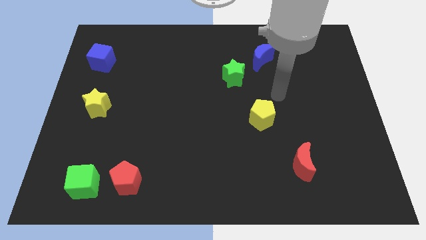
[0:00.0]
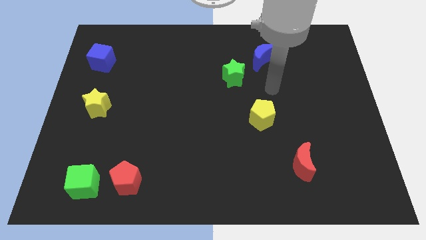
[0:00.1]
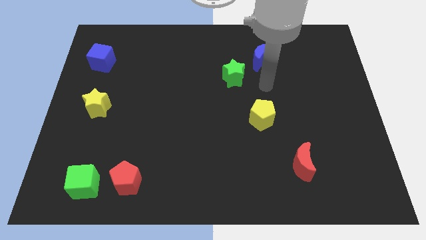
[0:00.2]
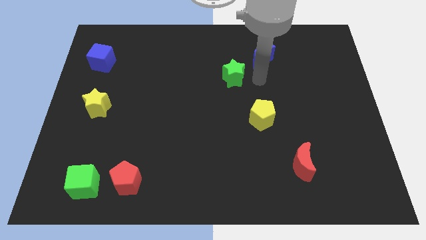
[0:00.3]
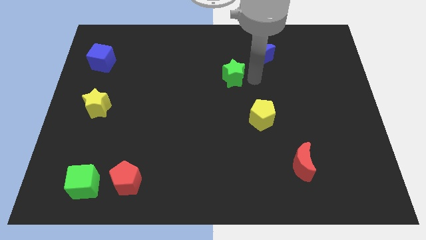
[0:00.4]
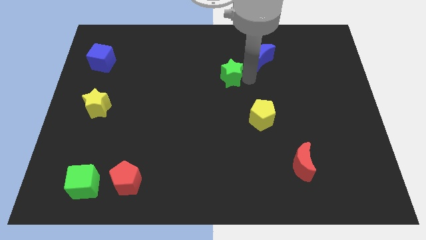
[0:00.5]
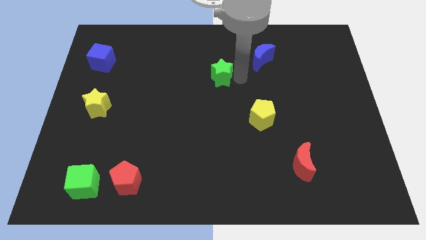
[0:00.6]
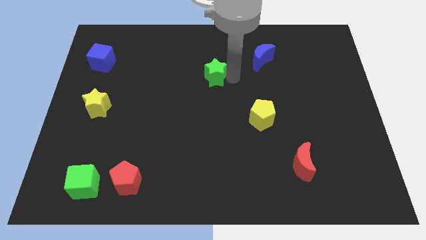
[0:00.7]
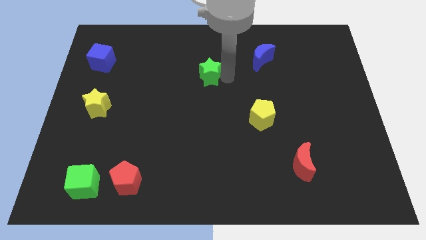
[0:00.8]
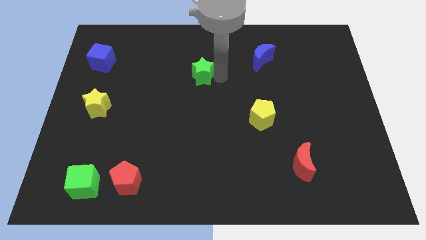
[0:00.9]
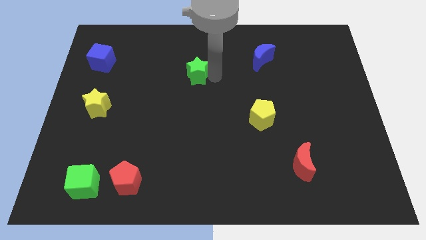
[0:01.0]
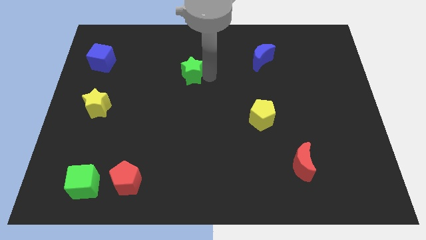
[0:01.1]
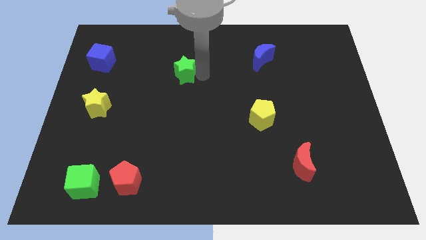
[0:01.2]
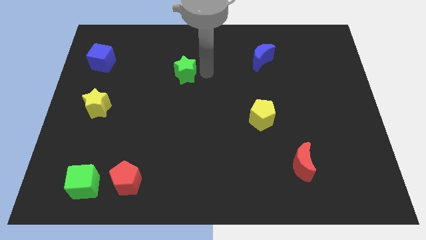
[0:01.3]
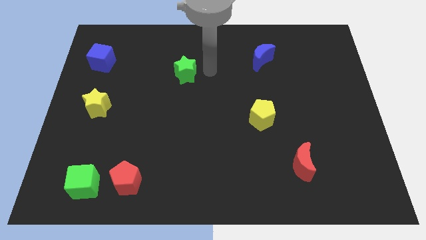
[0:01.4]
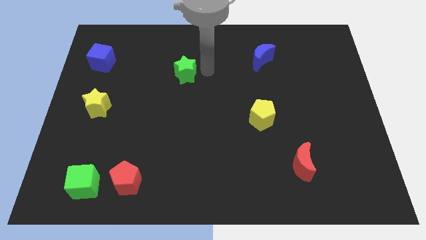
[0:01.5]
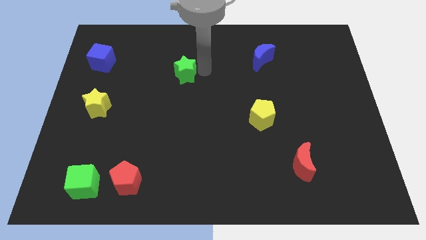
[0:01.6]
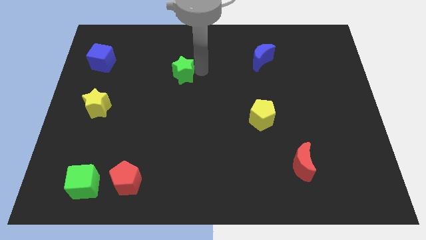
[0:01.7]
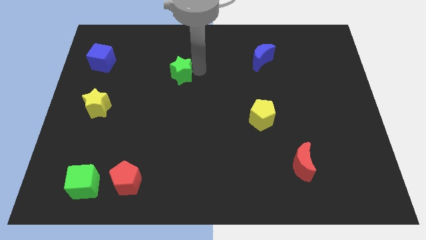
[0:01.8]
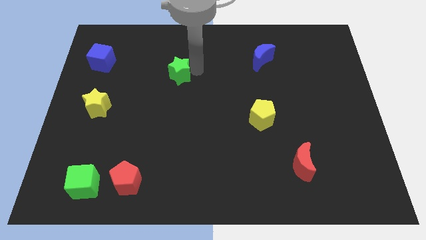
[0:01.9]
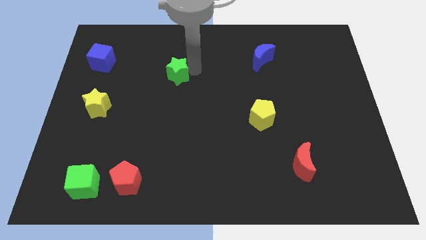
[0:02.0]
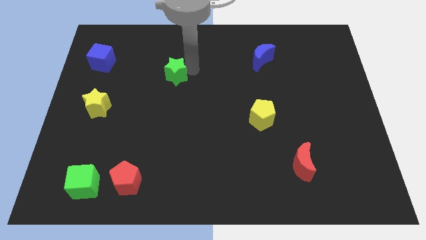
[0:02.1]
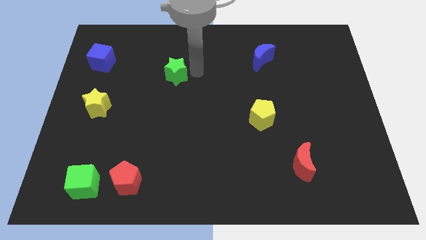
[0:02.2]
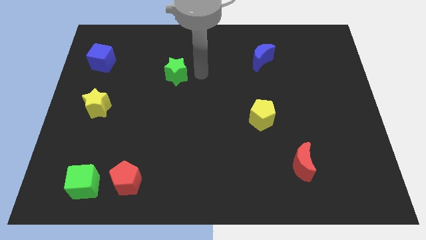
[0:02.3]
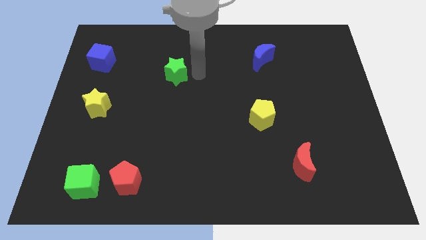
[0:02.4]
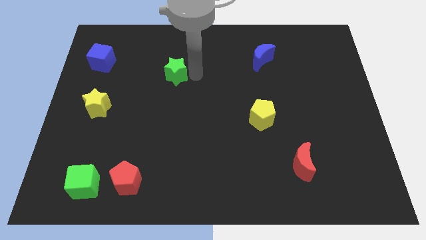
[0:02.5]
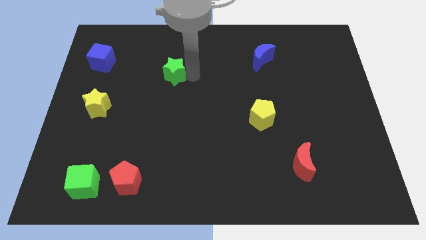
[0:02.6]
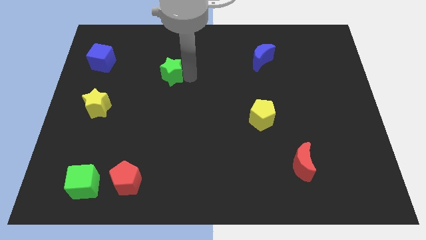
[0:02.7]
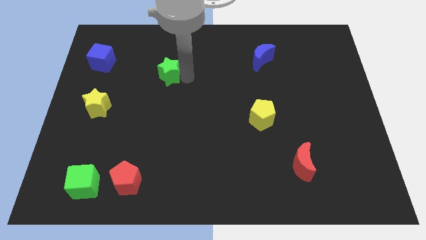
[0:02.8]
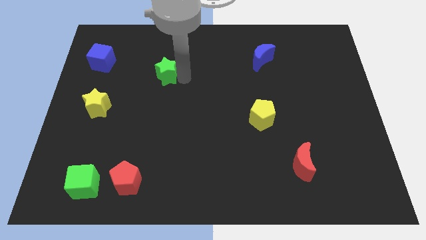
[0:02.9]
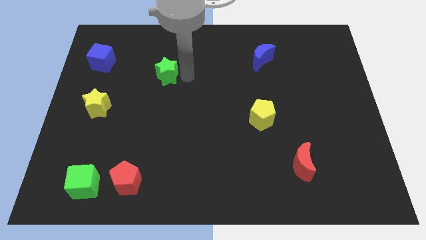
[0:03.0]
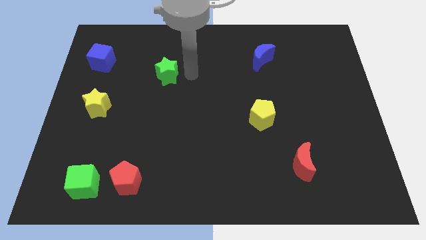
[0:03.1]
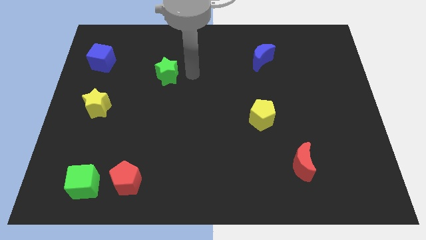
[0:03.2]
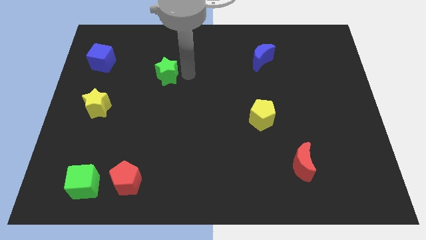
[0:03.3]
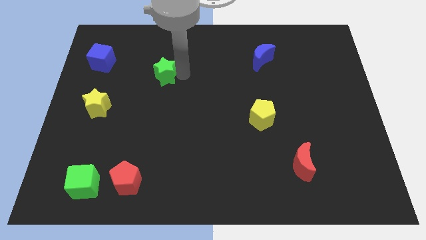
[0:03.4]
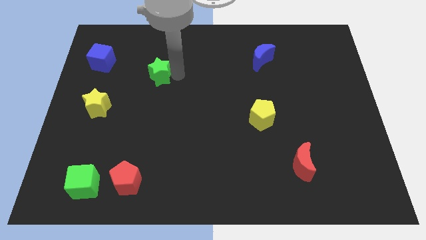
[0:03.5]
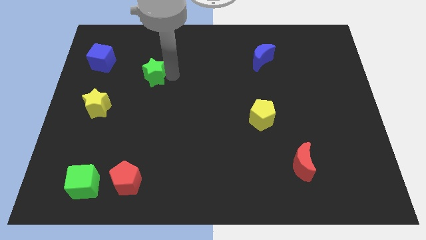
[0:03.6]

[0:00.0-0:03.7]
push the green star to the left

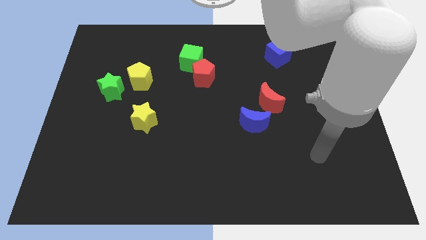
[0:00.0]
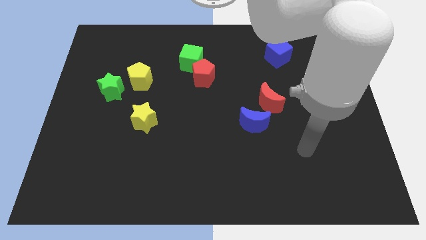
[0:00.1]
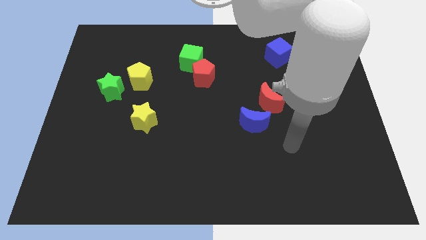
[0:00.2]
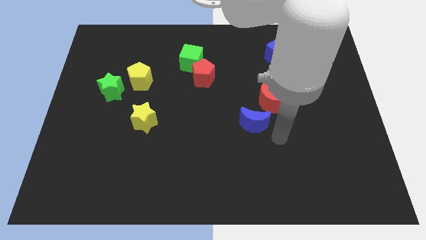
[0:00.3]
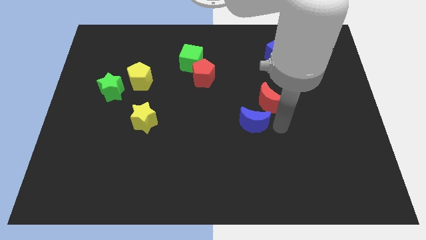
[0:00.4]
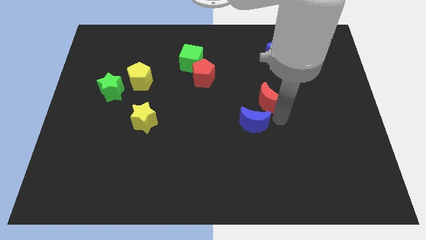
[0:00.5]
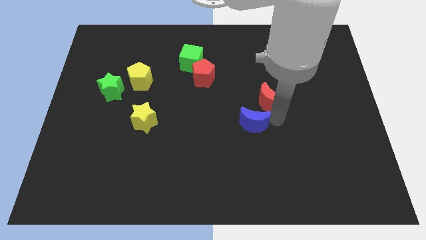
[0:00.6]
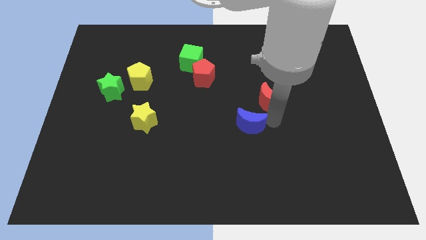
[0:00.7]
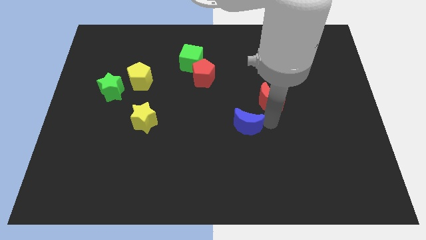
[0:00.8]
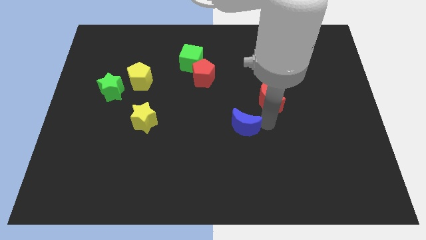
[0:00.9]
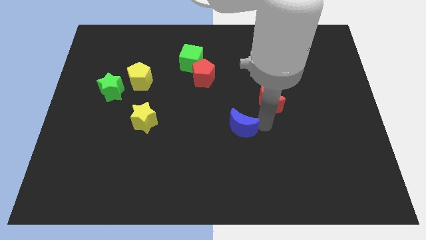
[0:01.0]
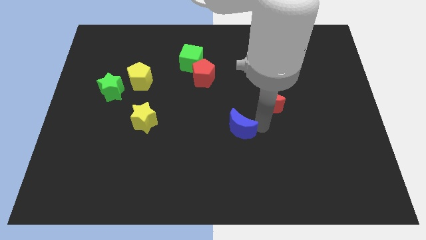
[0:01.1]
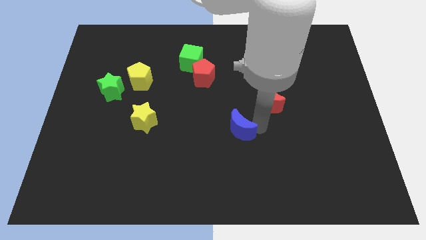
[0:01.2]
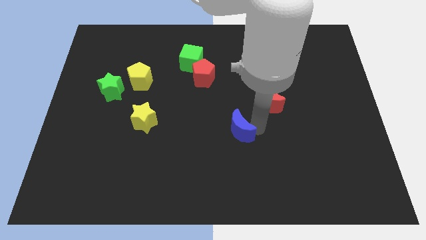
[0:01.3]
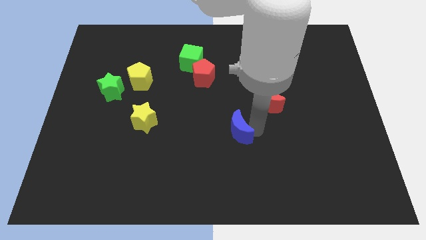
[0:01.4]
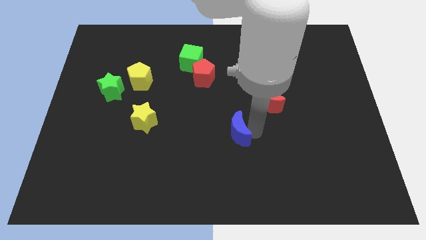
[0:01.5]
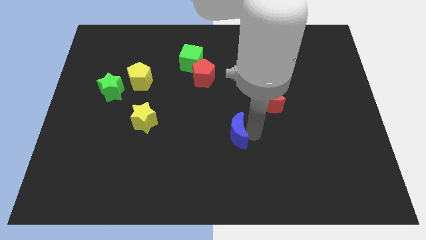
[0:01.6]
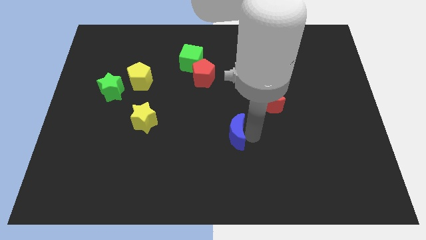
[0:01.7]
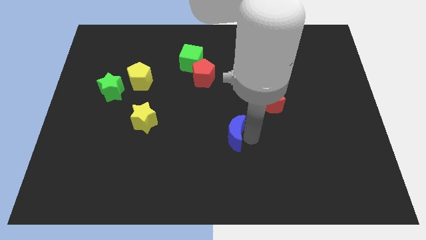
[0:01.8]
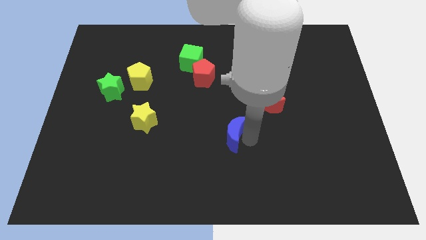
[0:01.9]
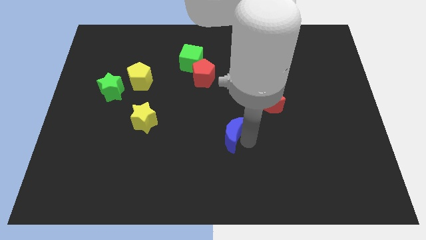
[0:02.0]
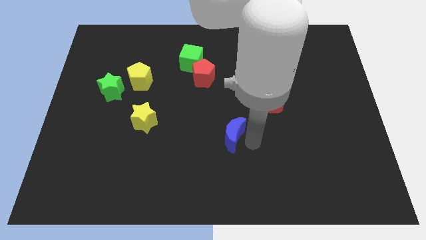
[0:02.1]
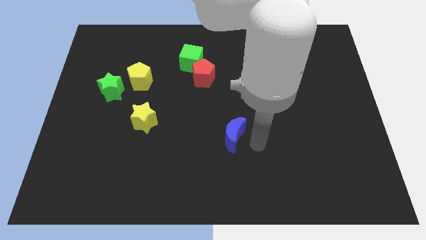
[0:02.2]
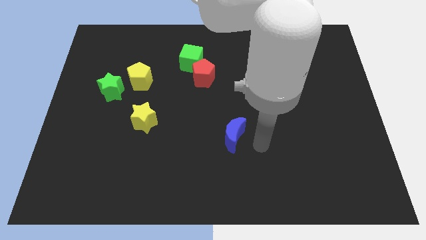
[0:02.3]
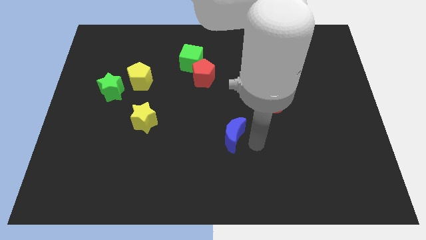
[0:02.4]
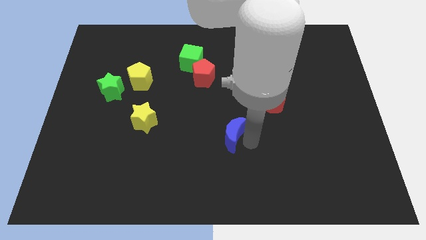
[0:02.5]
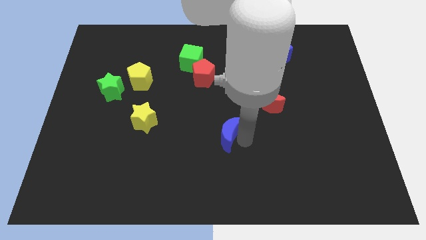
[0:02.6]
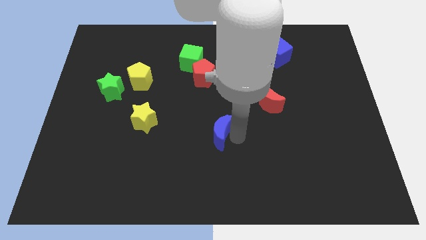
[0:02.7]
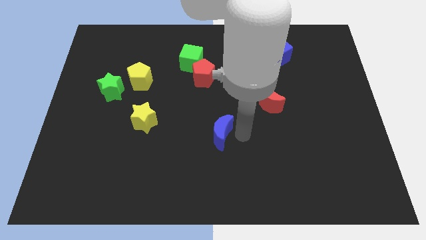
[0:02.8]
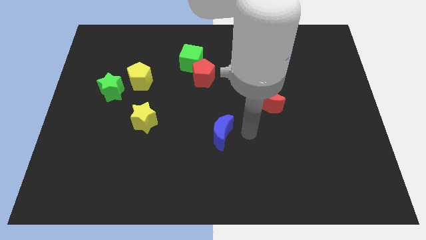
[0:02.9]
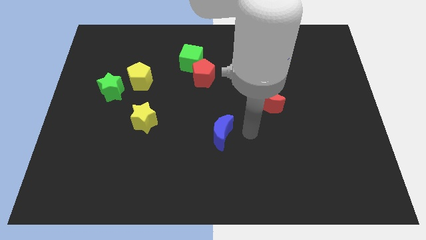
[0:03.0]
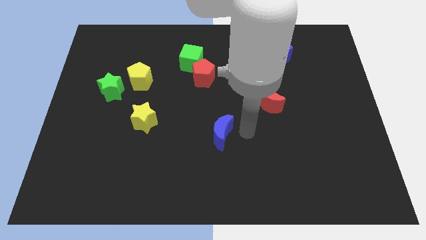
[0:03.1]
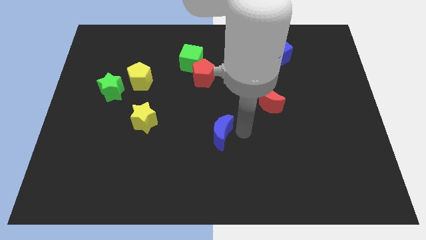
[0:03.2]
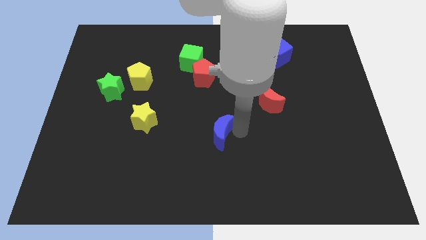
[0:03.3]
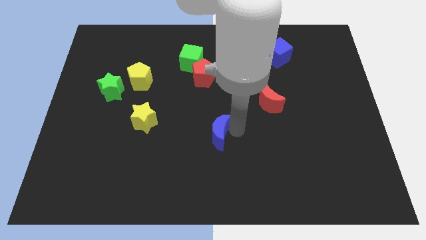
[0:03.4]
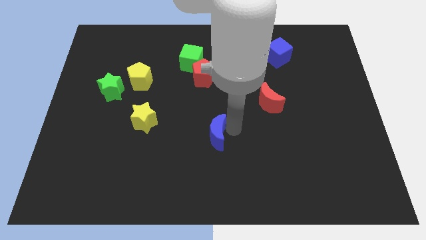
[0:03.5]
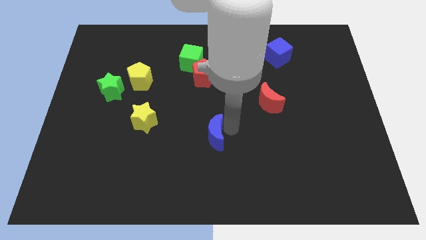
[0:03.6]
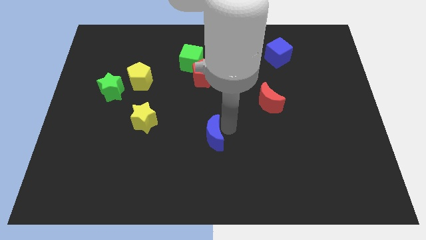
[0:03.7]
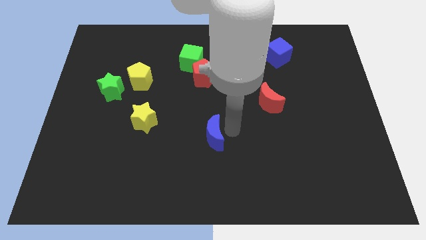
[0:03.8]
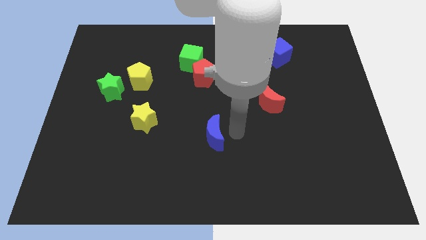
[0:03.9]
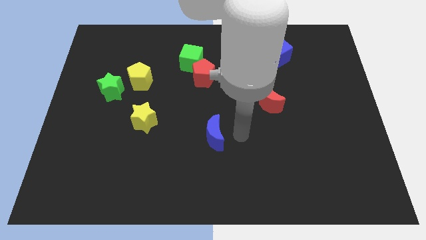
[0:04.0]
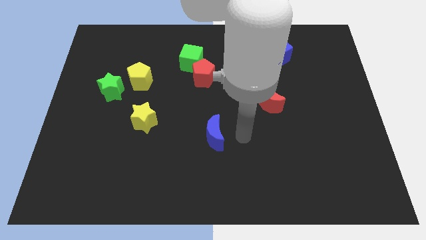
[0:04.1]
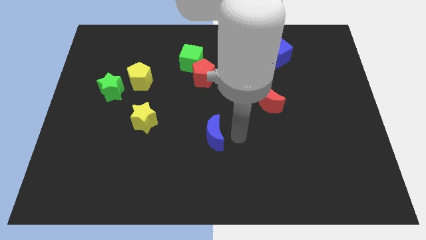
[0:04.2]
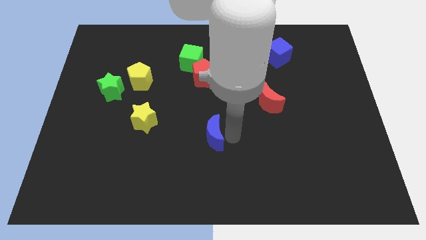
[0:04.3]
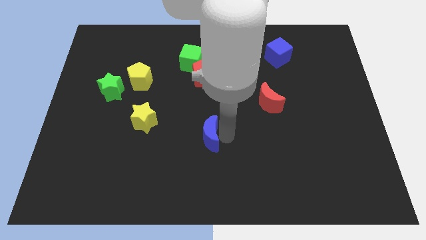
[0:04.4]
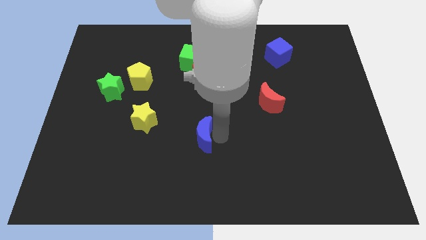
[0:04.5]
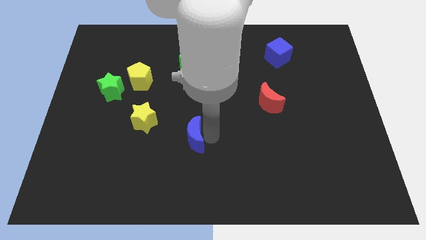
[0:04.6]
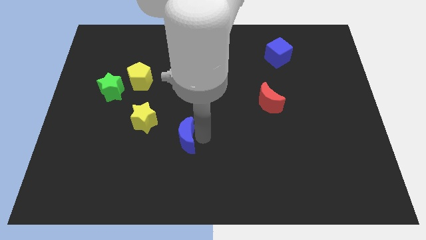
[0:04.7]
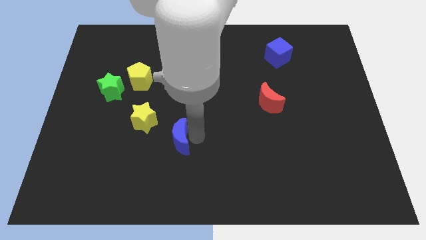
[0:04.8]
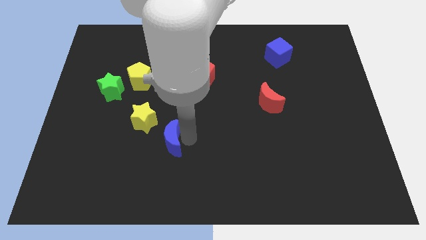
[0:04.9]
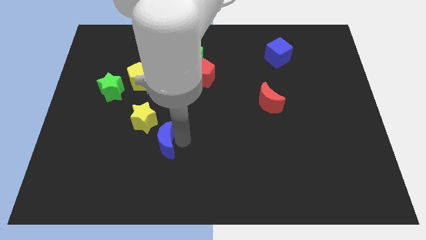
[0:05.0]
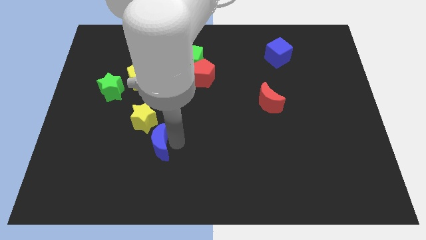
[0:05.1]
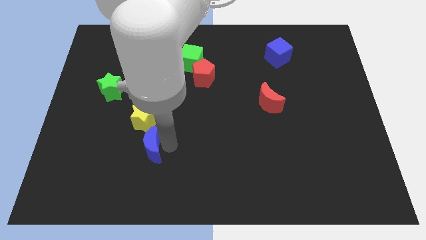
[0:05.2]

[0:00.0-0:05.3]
move the blue moon to the left
